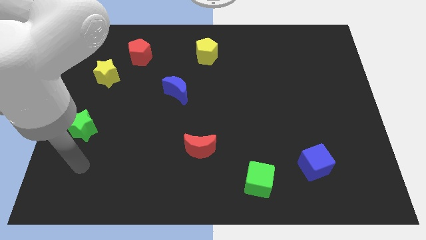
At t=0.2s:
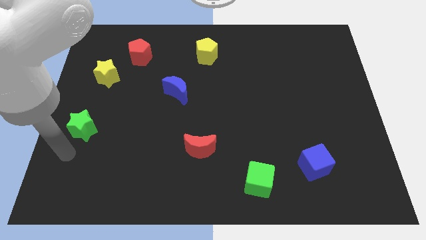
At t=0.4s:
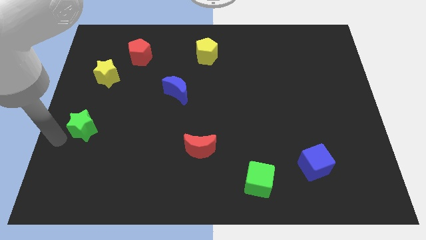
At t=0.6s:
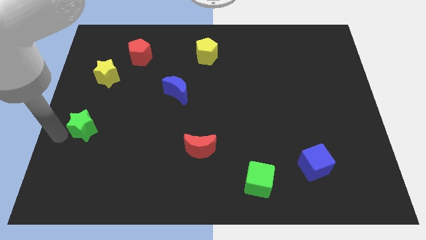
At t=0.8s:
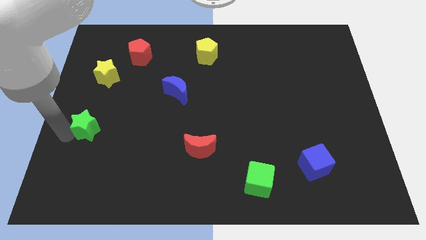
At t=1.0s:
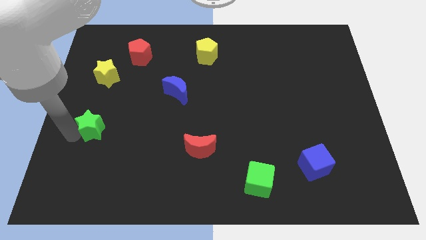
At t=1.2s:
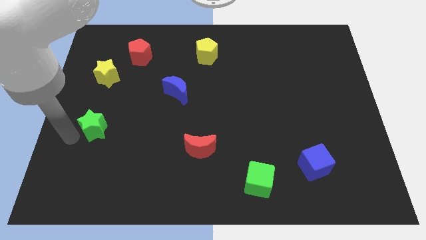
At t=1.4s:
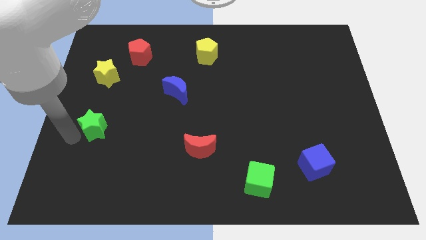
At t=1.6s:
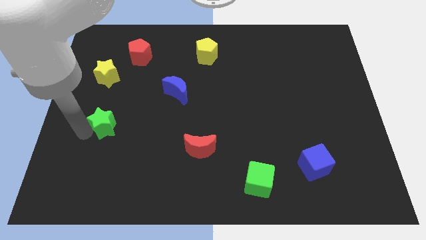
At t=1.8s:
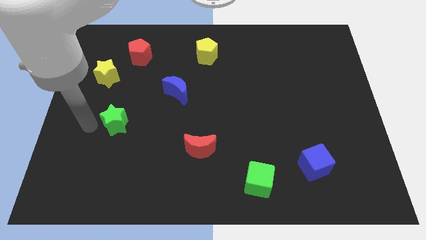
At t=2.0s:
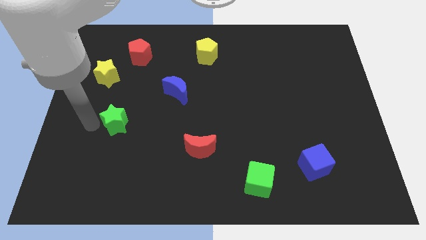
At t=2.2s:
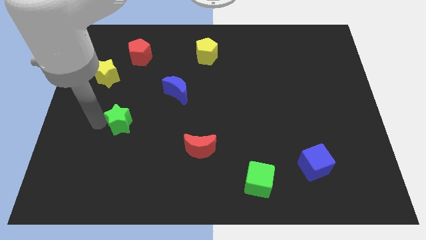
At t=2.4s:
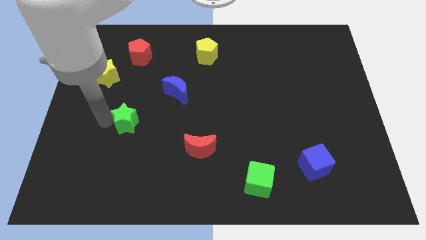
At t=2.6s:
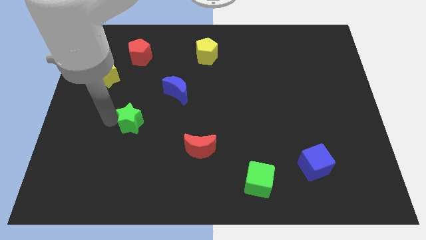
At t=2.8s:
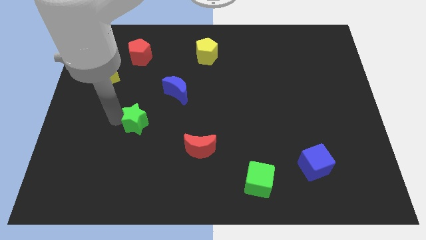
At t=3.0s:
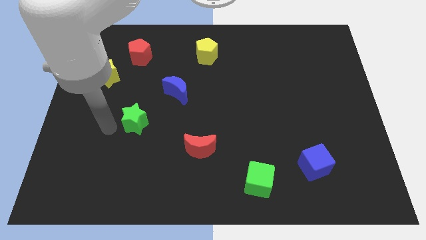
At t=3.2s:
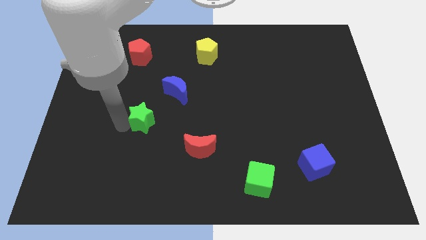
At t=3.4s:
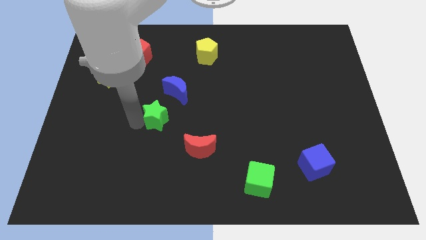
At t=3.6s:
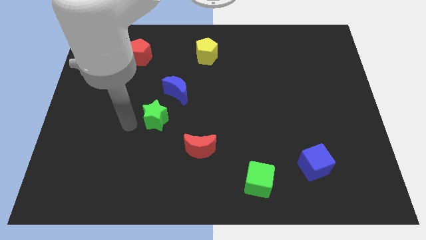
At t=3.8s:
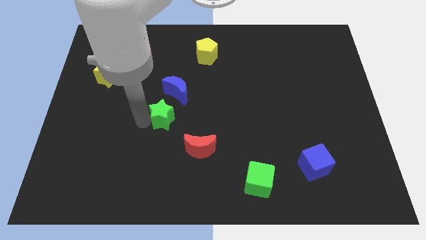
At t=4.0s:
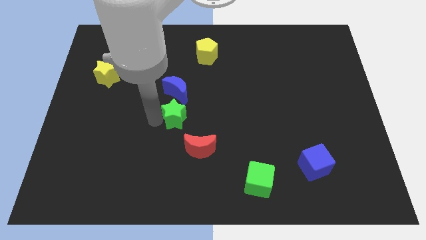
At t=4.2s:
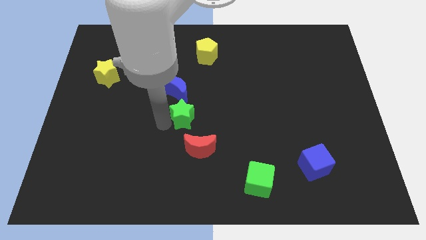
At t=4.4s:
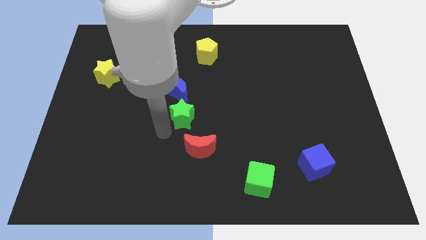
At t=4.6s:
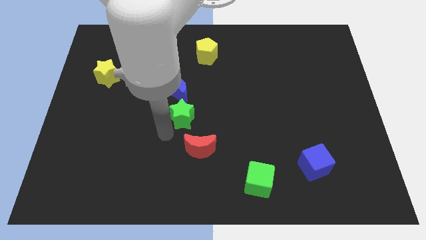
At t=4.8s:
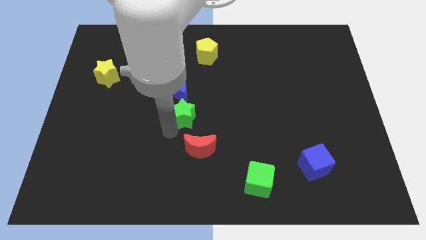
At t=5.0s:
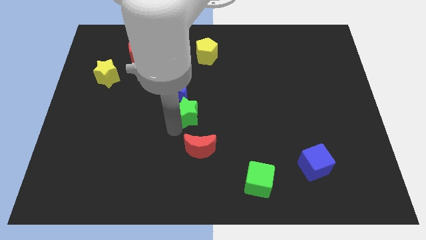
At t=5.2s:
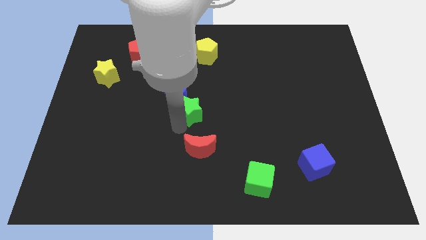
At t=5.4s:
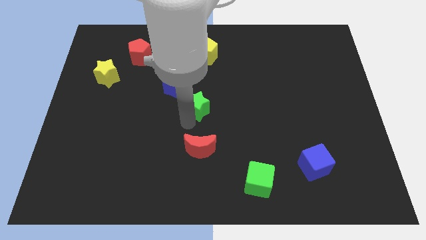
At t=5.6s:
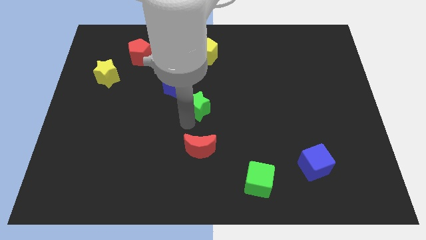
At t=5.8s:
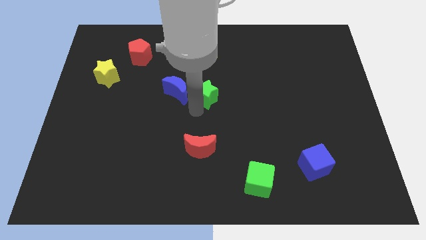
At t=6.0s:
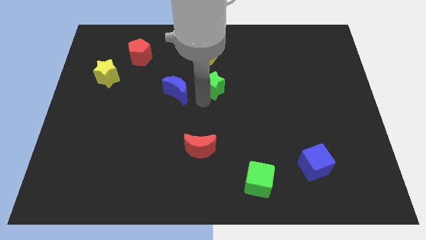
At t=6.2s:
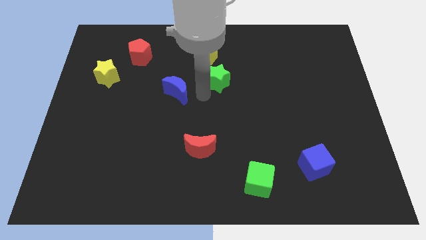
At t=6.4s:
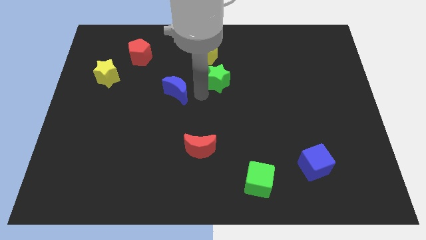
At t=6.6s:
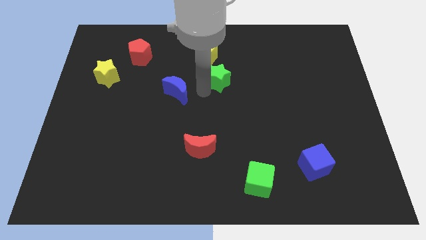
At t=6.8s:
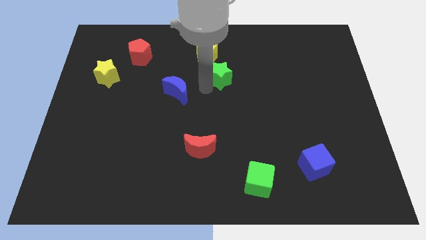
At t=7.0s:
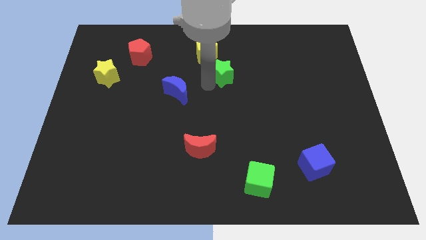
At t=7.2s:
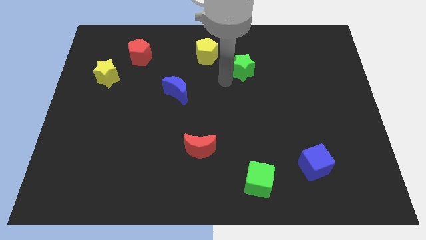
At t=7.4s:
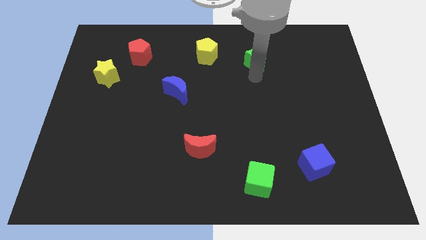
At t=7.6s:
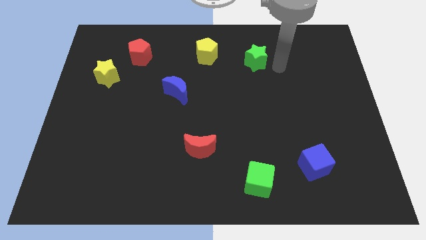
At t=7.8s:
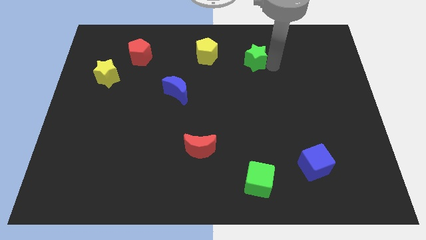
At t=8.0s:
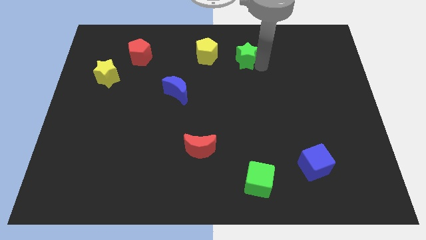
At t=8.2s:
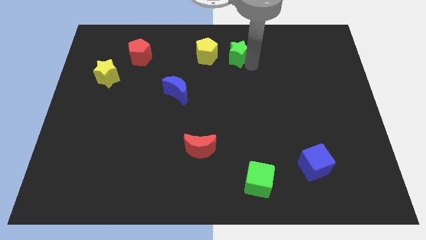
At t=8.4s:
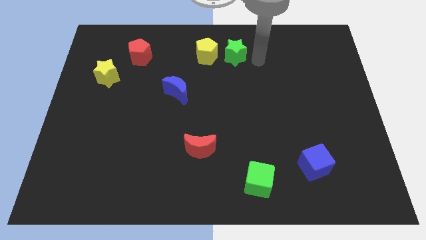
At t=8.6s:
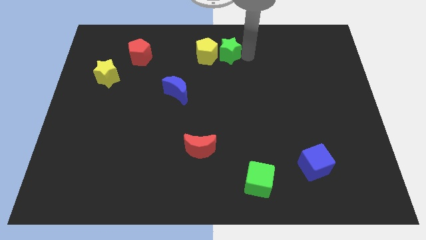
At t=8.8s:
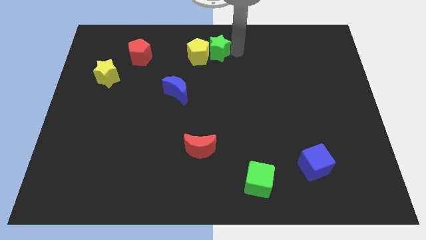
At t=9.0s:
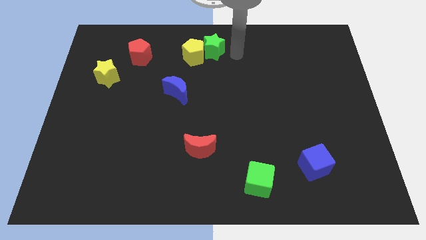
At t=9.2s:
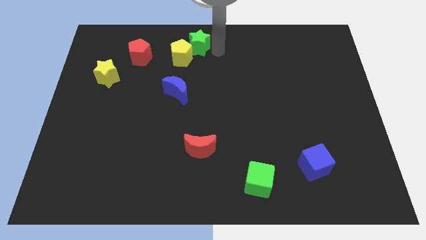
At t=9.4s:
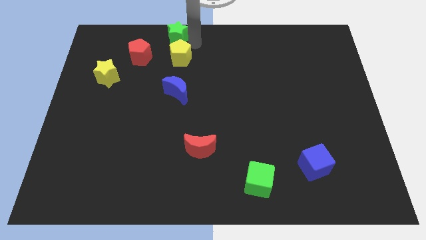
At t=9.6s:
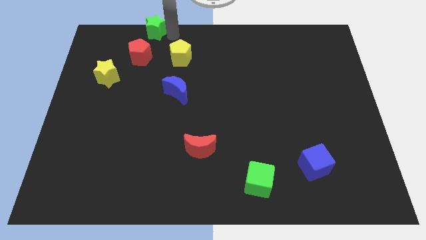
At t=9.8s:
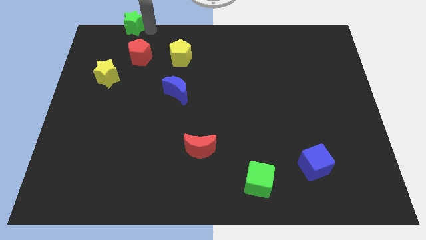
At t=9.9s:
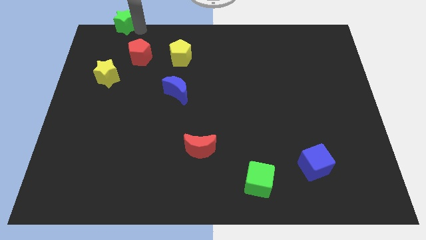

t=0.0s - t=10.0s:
put the green star to the top left of the board

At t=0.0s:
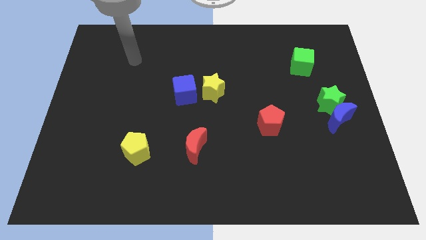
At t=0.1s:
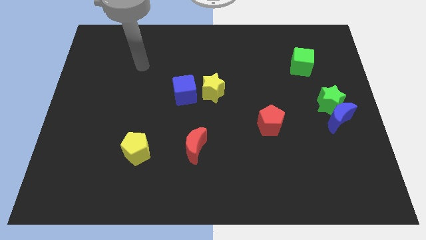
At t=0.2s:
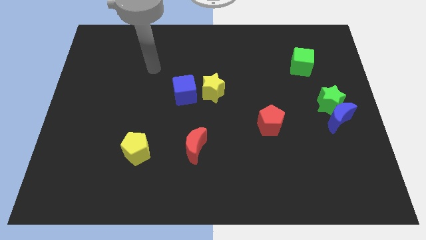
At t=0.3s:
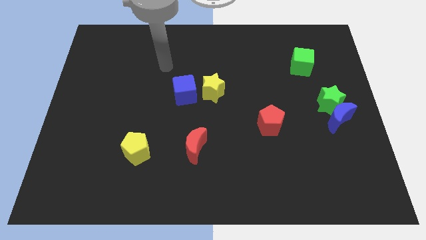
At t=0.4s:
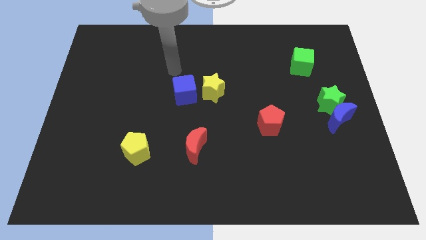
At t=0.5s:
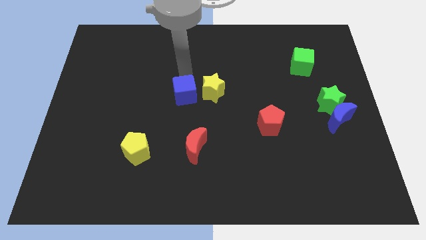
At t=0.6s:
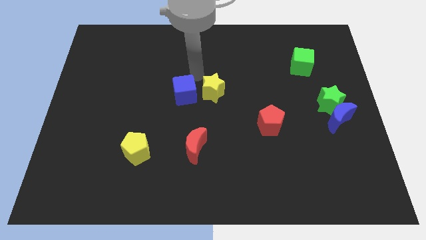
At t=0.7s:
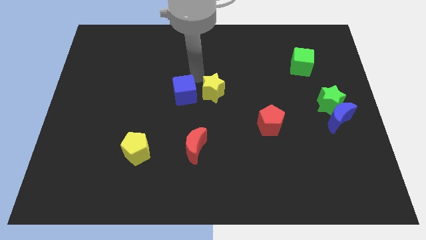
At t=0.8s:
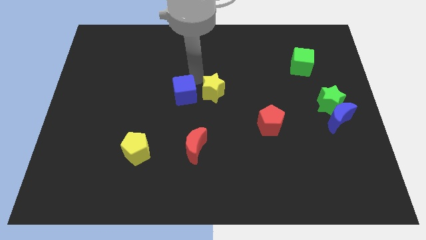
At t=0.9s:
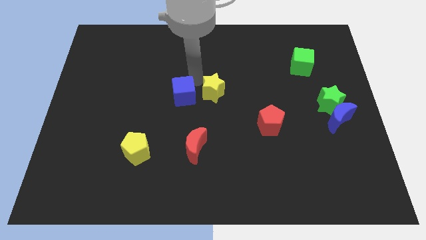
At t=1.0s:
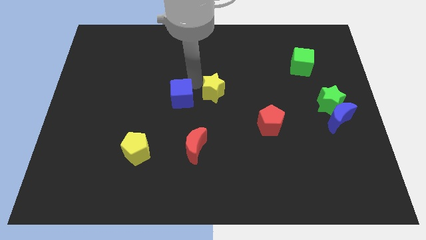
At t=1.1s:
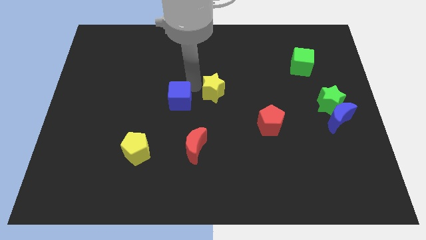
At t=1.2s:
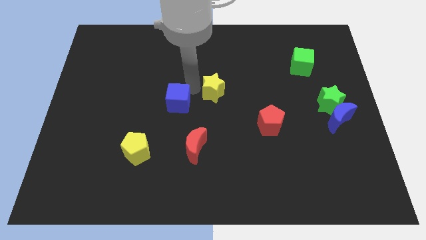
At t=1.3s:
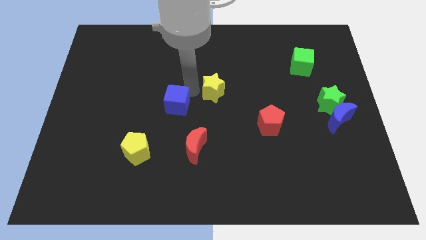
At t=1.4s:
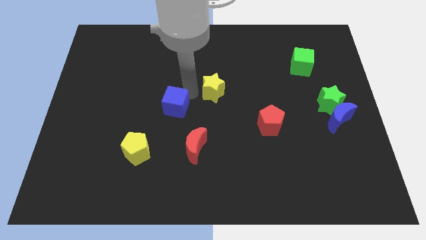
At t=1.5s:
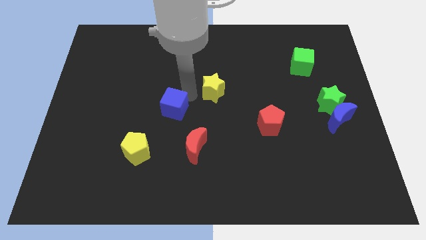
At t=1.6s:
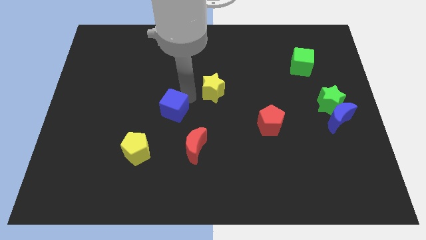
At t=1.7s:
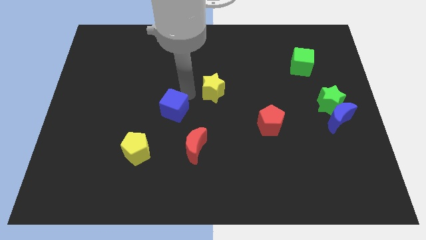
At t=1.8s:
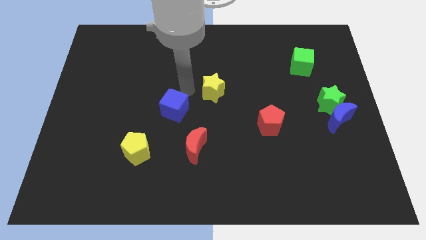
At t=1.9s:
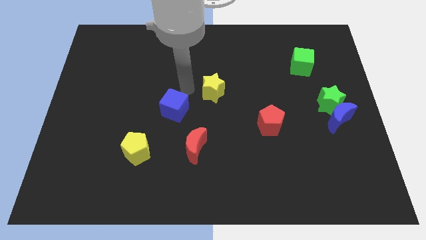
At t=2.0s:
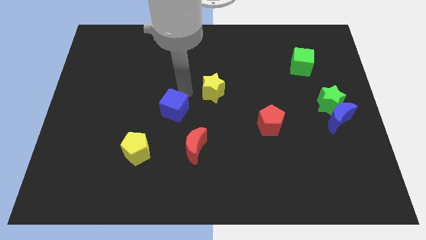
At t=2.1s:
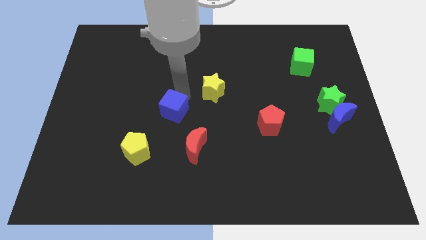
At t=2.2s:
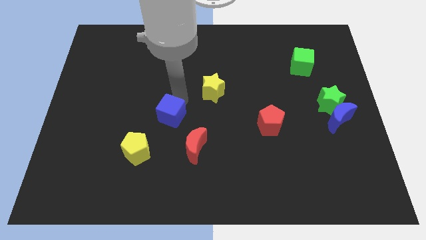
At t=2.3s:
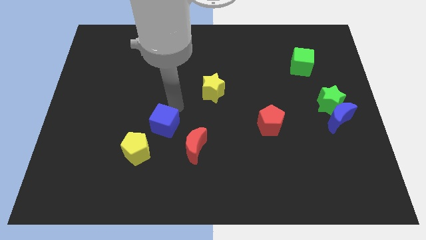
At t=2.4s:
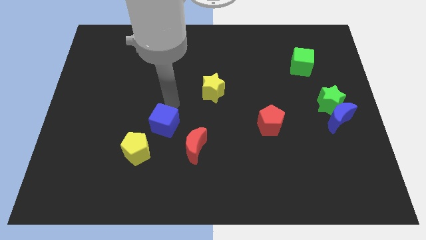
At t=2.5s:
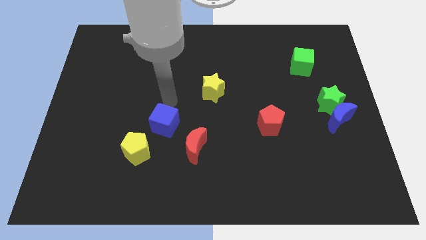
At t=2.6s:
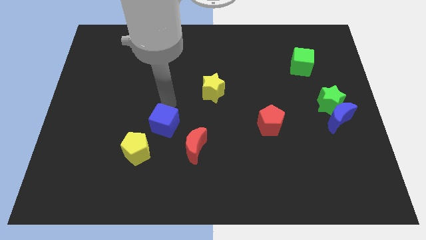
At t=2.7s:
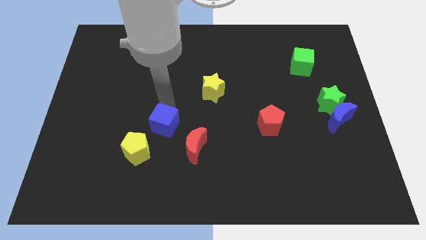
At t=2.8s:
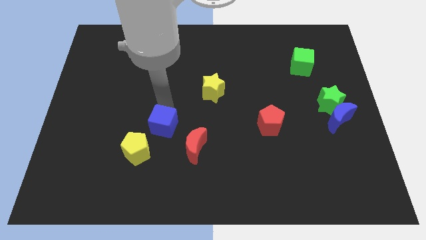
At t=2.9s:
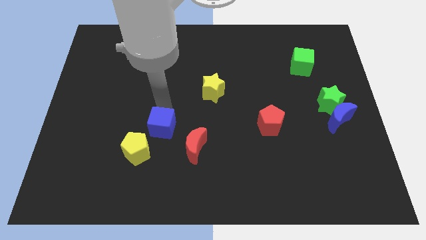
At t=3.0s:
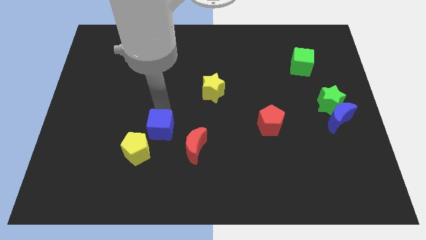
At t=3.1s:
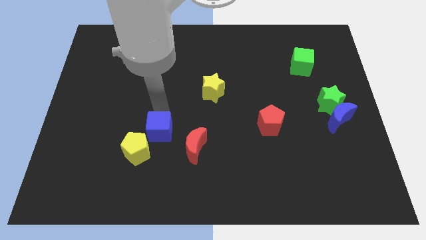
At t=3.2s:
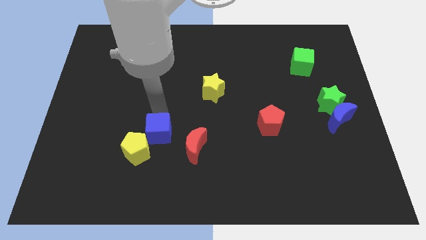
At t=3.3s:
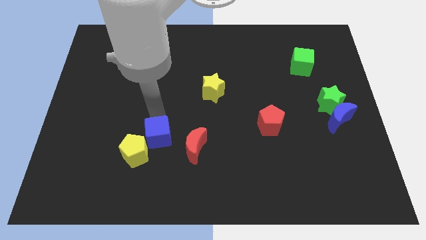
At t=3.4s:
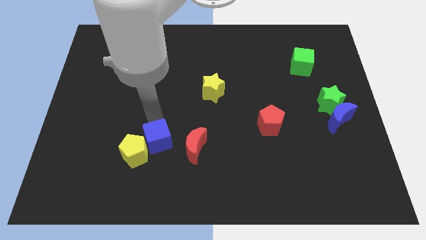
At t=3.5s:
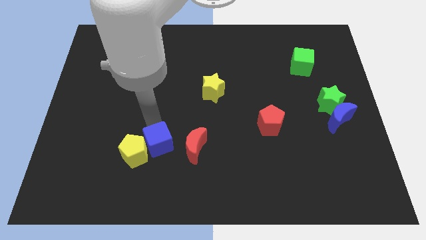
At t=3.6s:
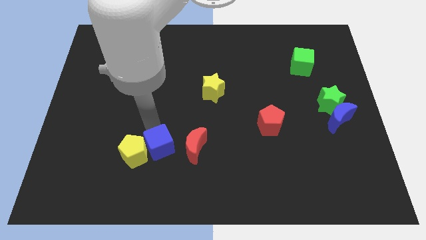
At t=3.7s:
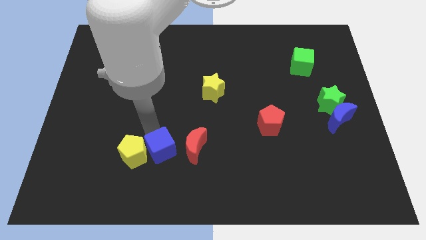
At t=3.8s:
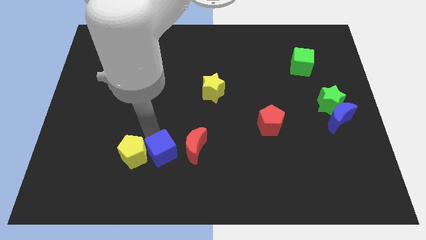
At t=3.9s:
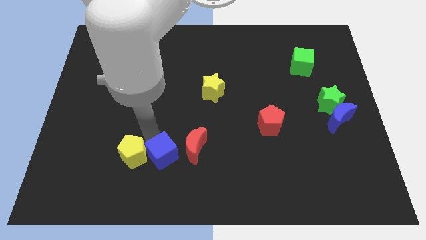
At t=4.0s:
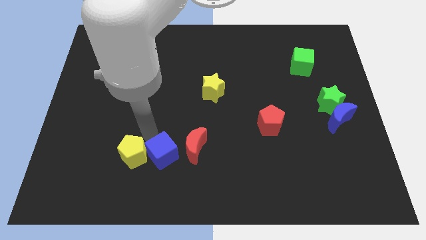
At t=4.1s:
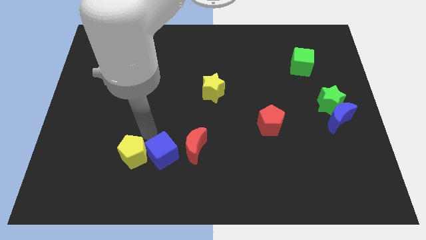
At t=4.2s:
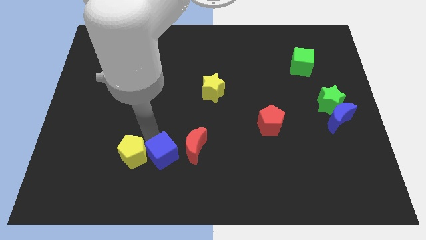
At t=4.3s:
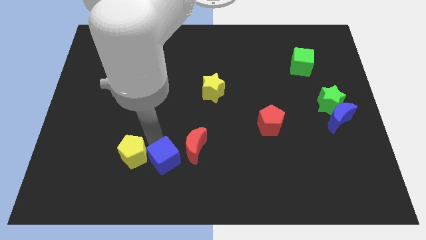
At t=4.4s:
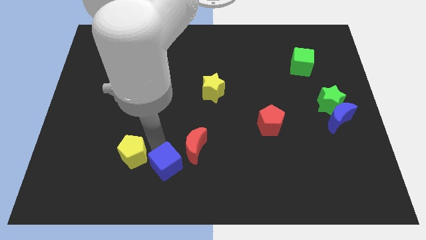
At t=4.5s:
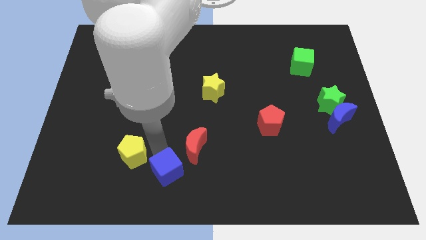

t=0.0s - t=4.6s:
move the blue cube to the bottom side
